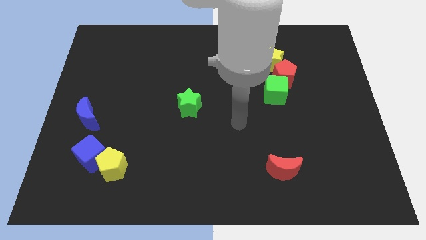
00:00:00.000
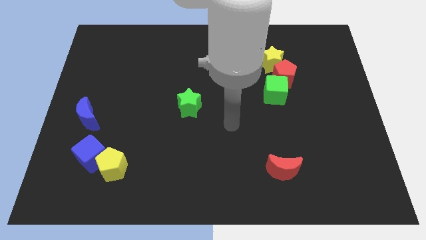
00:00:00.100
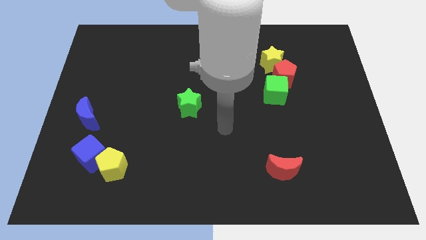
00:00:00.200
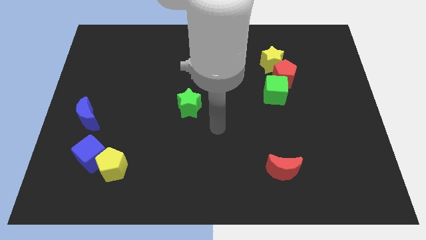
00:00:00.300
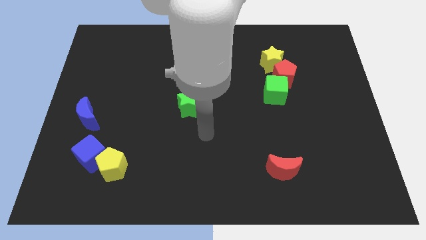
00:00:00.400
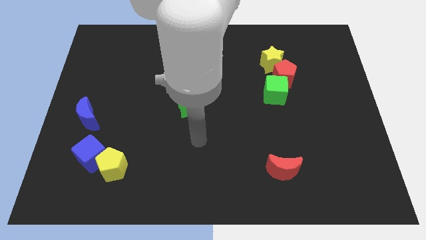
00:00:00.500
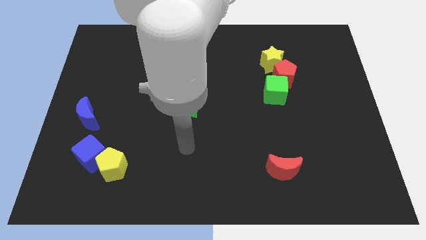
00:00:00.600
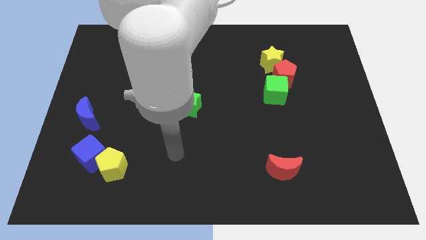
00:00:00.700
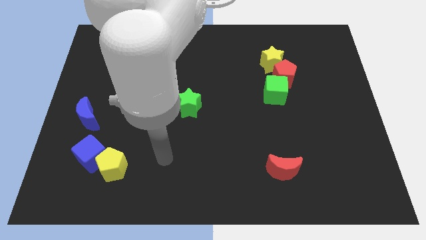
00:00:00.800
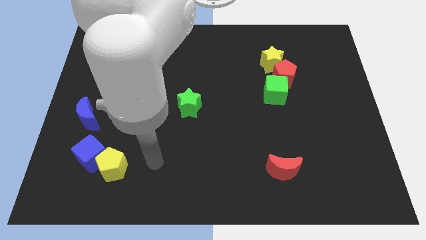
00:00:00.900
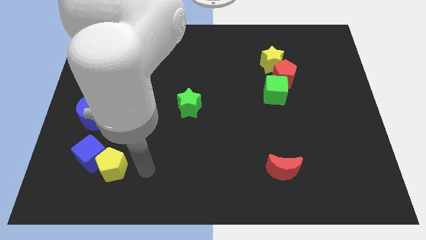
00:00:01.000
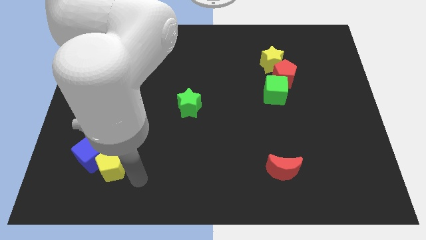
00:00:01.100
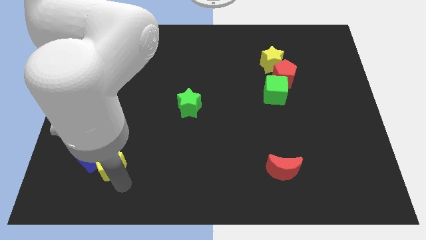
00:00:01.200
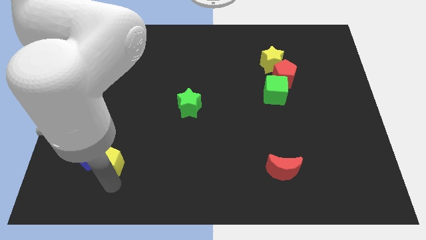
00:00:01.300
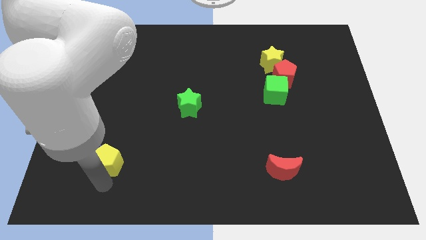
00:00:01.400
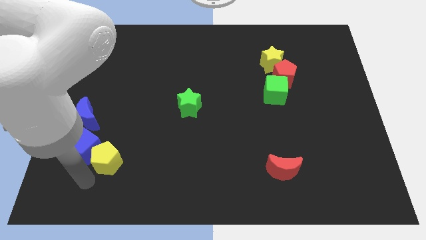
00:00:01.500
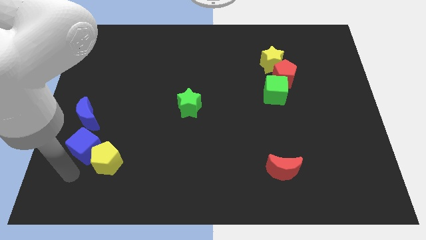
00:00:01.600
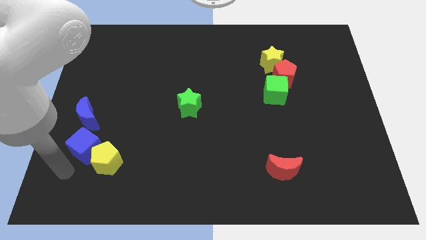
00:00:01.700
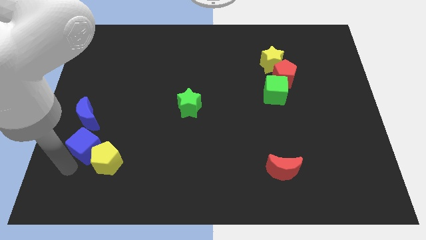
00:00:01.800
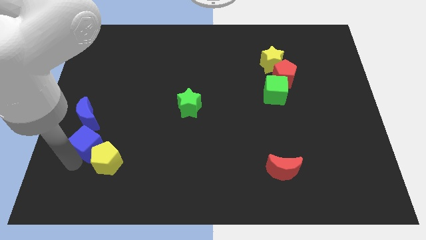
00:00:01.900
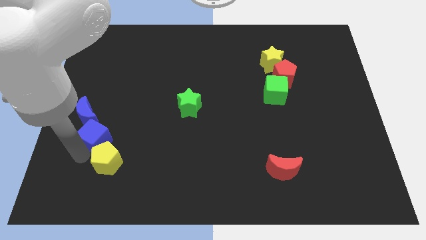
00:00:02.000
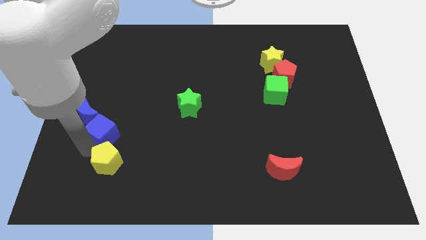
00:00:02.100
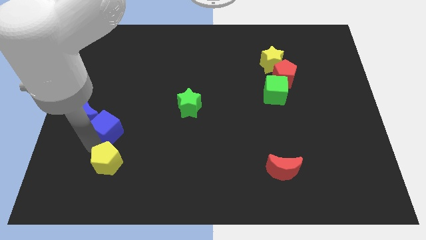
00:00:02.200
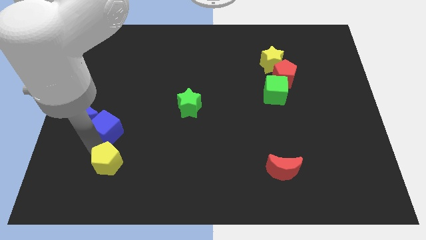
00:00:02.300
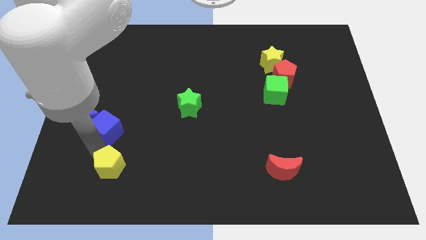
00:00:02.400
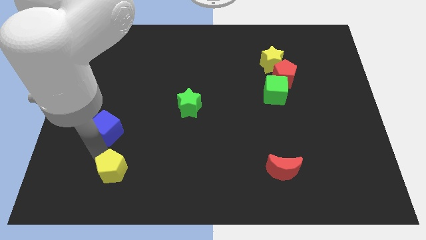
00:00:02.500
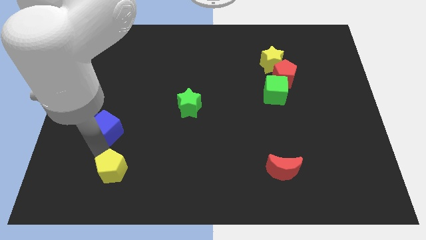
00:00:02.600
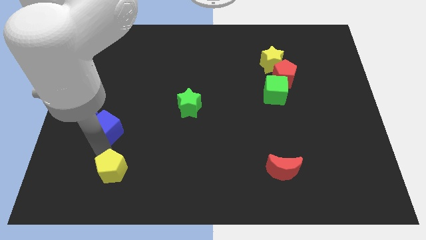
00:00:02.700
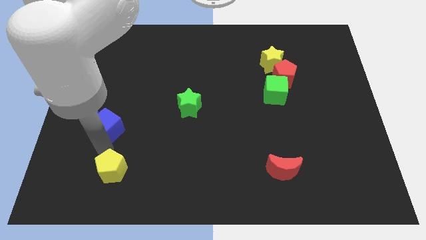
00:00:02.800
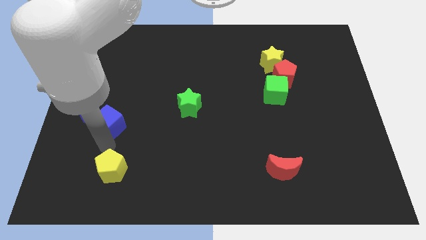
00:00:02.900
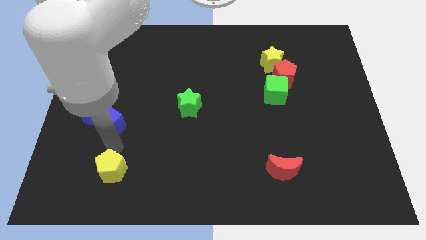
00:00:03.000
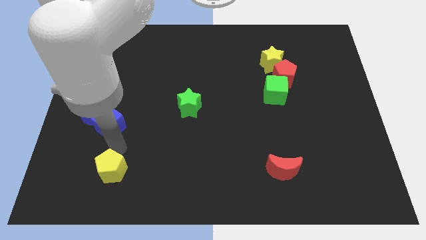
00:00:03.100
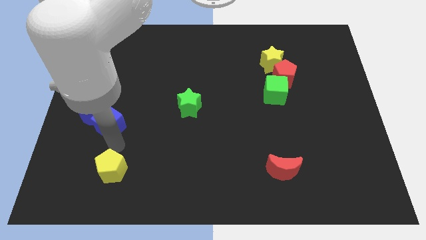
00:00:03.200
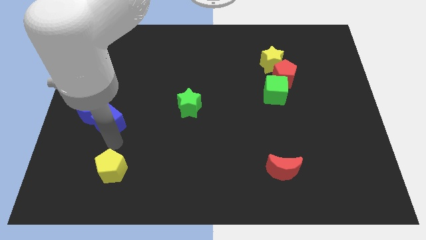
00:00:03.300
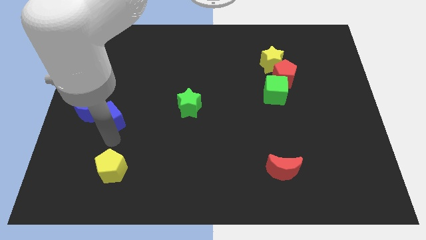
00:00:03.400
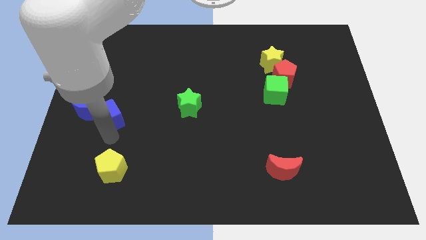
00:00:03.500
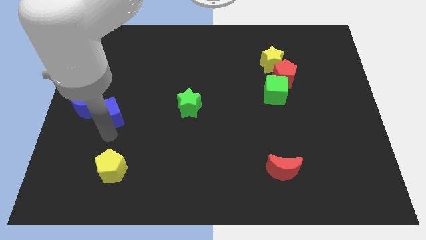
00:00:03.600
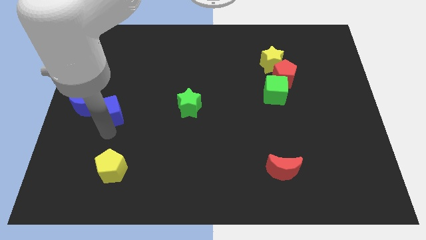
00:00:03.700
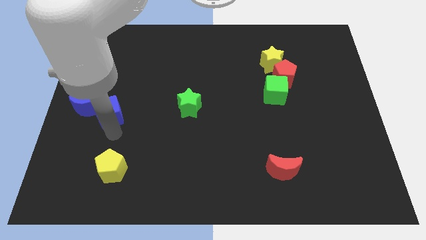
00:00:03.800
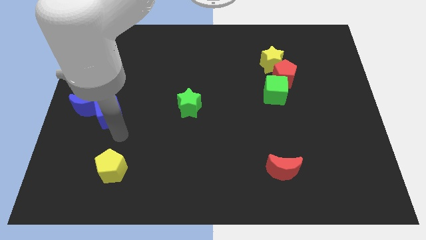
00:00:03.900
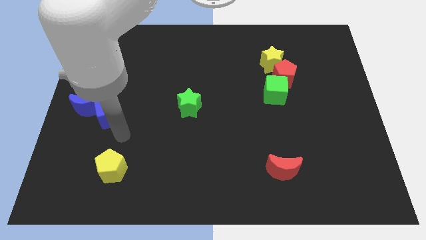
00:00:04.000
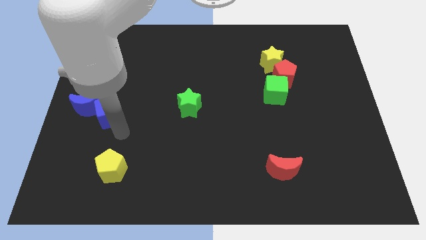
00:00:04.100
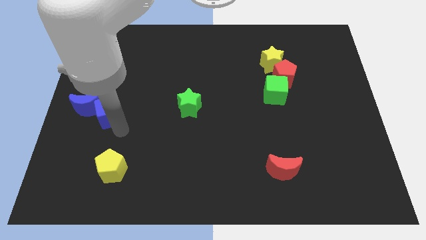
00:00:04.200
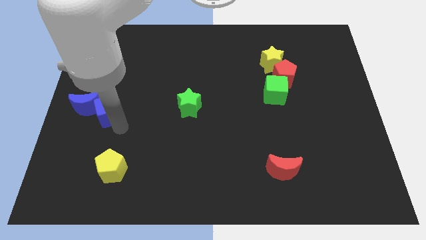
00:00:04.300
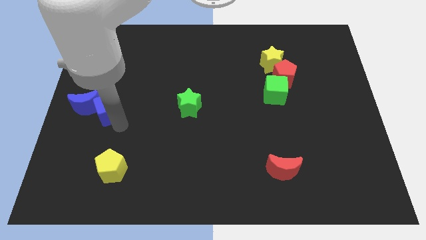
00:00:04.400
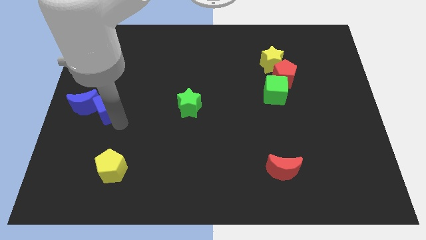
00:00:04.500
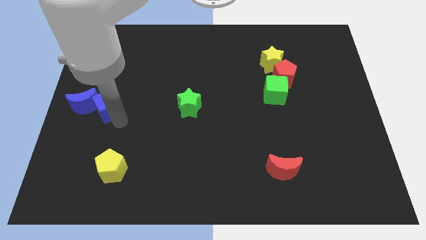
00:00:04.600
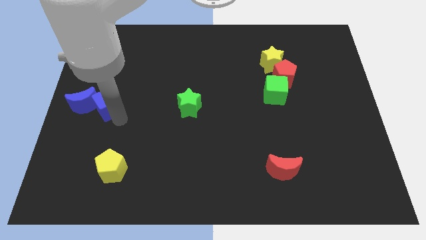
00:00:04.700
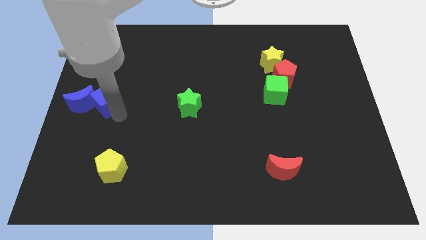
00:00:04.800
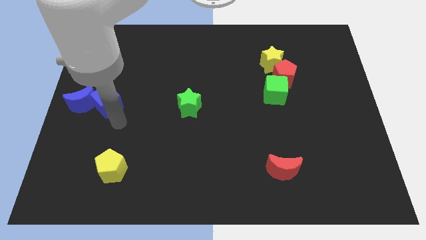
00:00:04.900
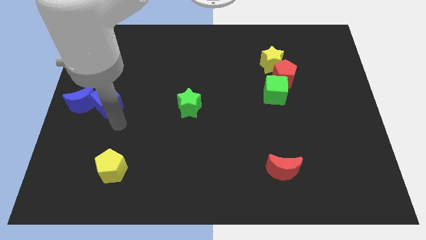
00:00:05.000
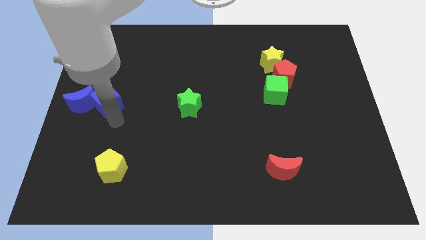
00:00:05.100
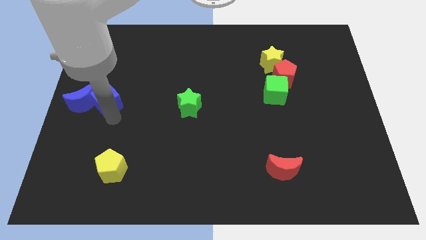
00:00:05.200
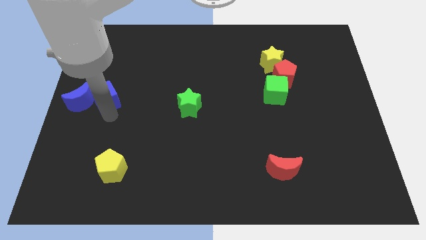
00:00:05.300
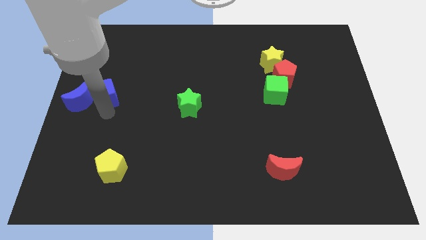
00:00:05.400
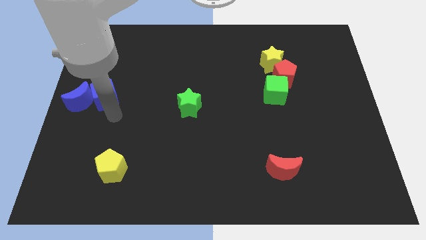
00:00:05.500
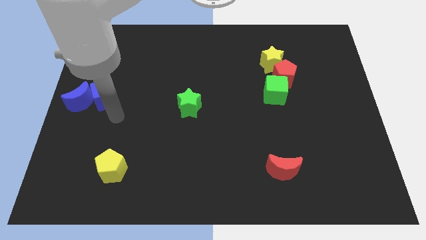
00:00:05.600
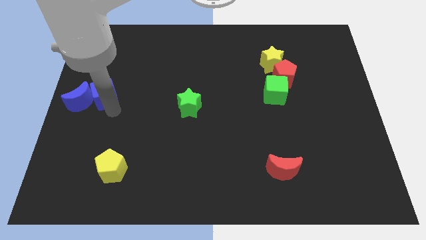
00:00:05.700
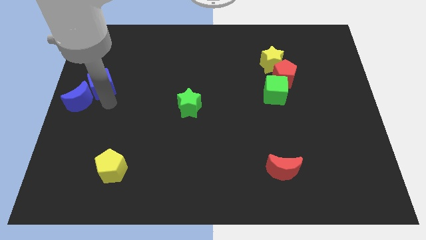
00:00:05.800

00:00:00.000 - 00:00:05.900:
push the blue cube to the top of the blue moon

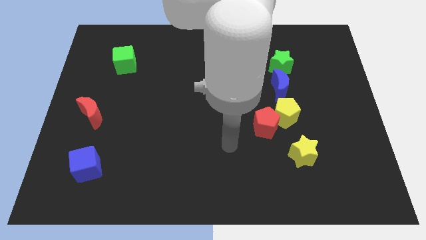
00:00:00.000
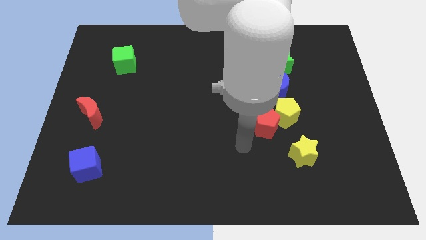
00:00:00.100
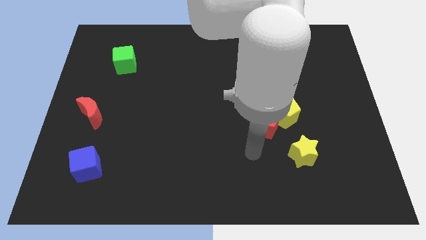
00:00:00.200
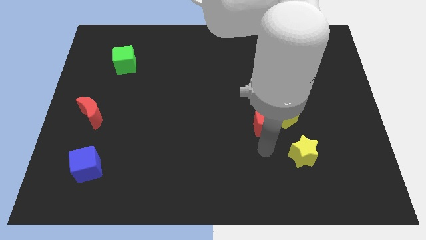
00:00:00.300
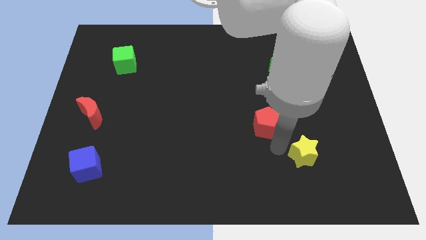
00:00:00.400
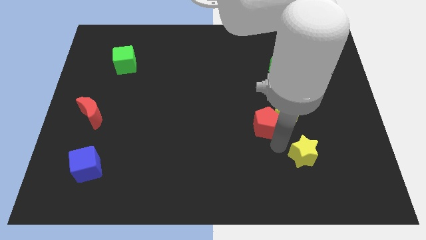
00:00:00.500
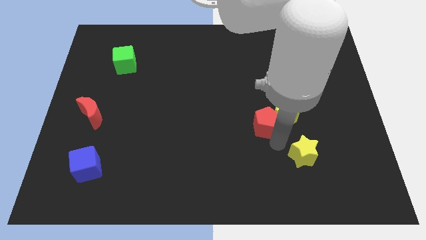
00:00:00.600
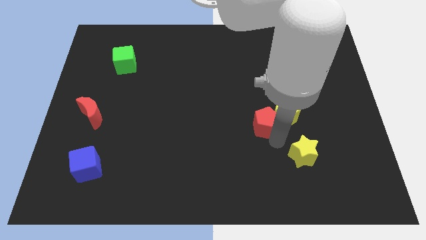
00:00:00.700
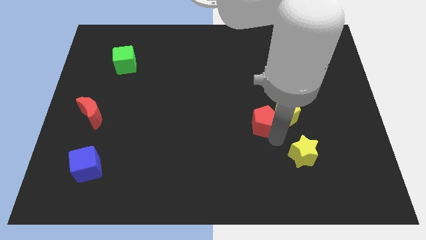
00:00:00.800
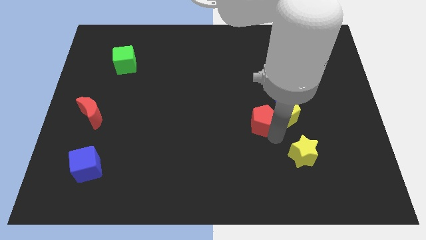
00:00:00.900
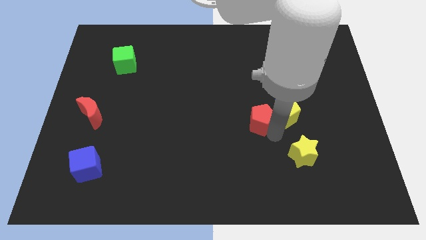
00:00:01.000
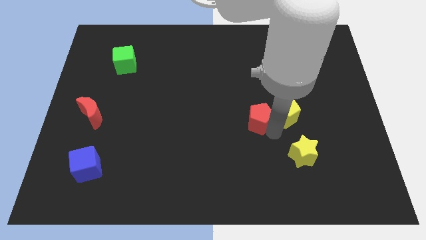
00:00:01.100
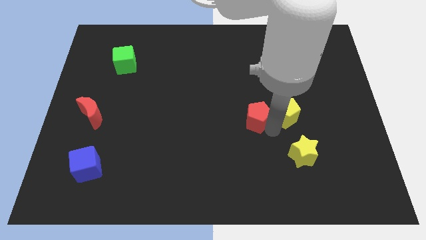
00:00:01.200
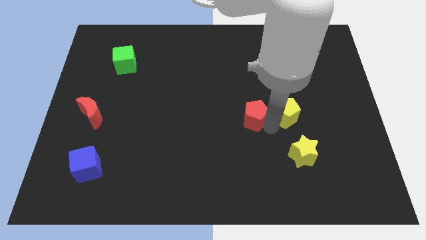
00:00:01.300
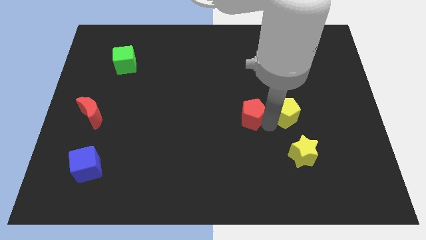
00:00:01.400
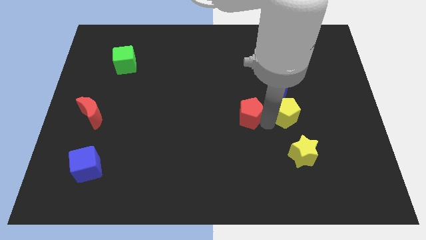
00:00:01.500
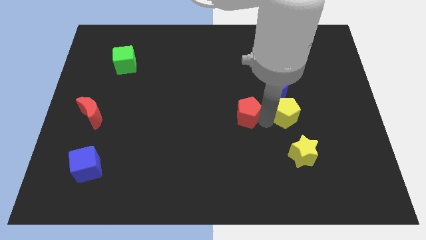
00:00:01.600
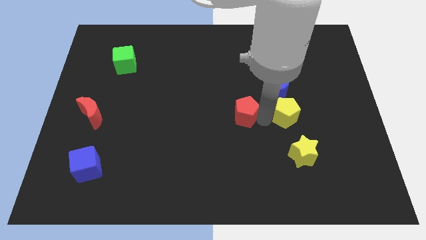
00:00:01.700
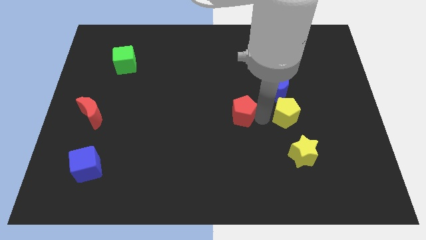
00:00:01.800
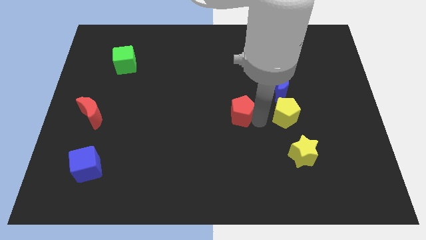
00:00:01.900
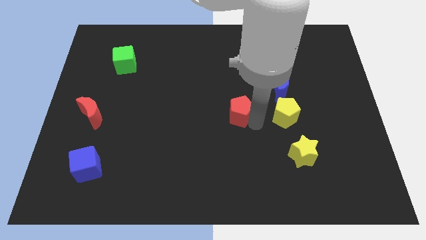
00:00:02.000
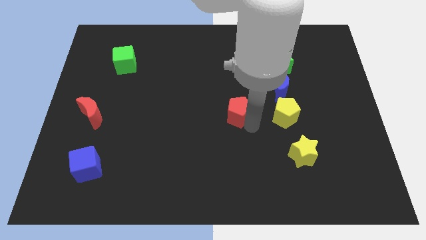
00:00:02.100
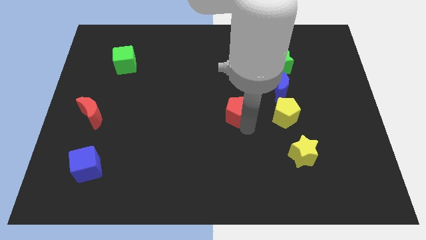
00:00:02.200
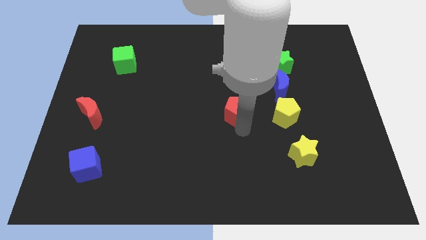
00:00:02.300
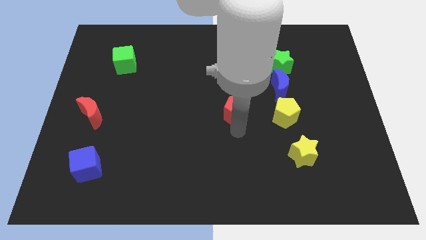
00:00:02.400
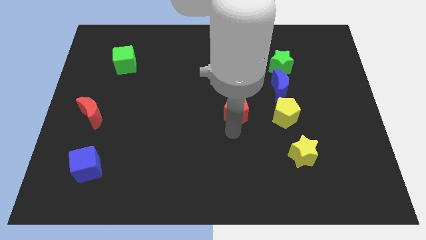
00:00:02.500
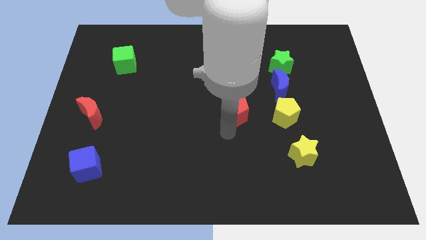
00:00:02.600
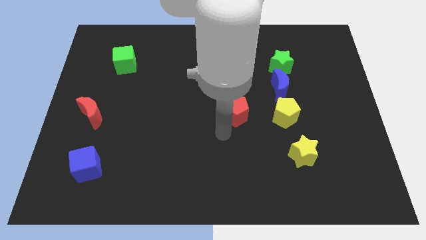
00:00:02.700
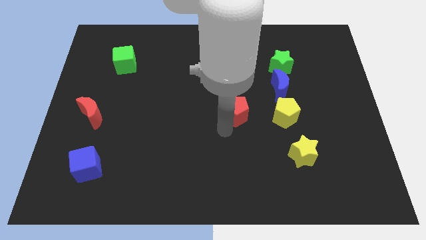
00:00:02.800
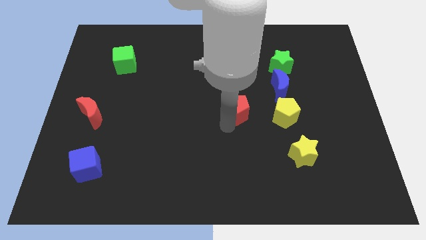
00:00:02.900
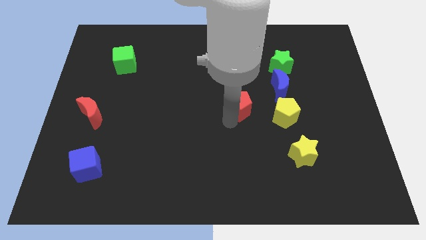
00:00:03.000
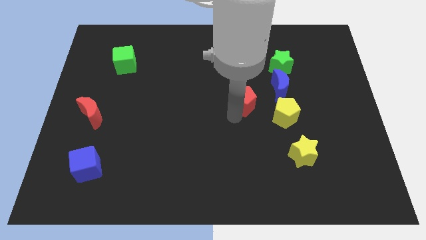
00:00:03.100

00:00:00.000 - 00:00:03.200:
push the red pentagon just left of the blue moon
